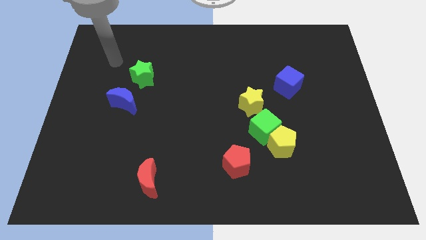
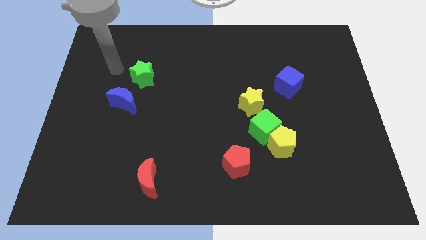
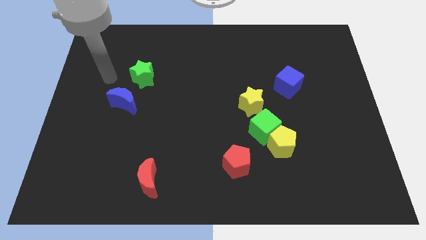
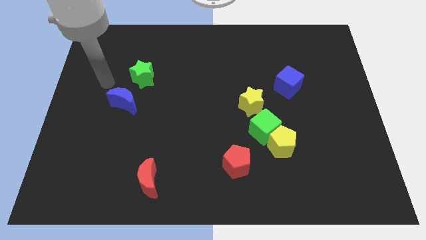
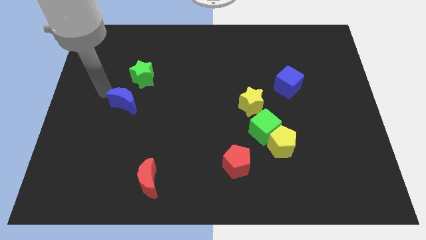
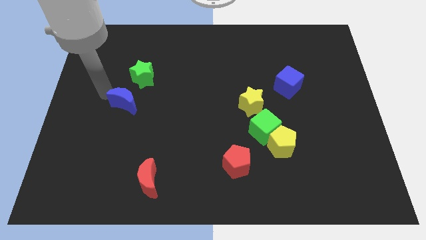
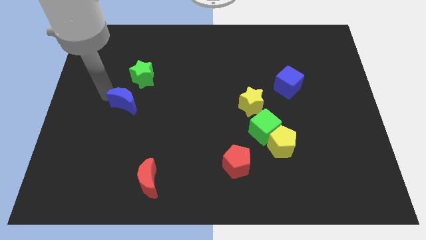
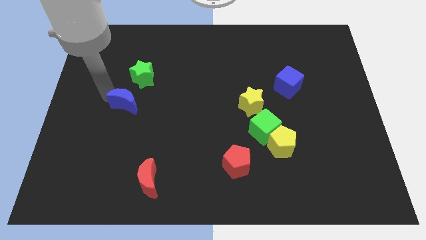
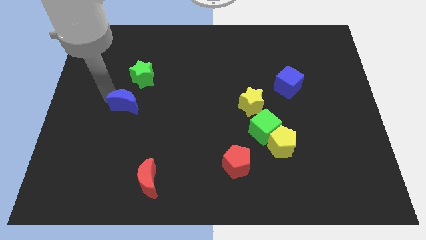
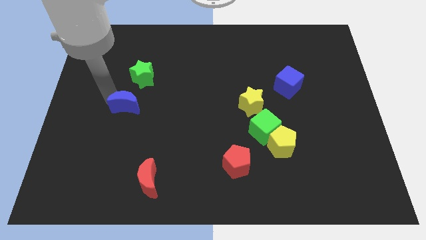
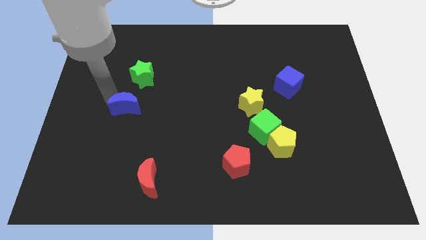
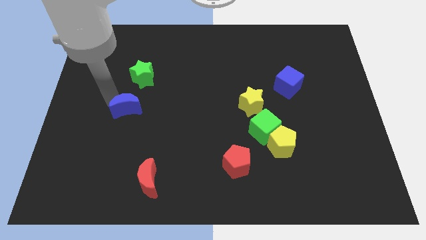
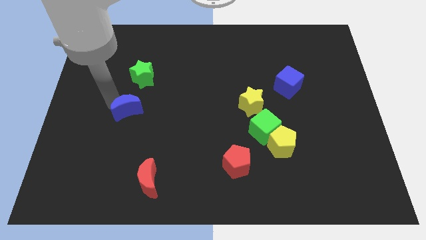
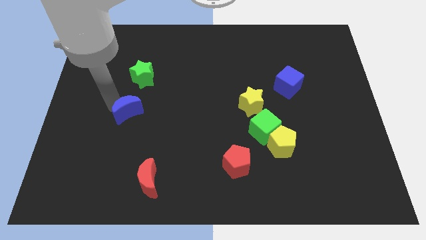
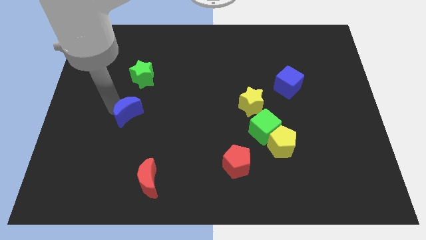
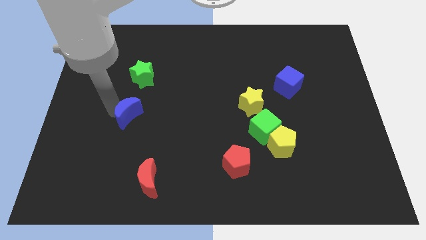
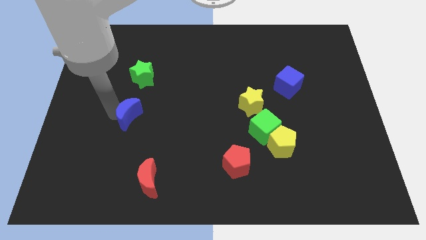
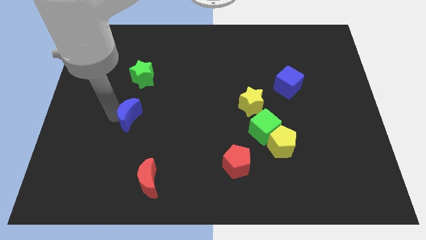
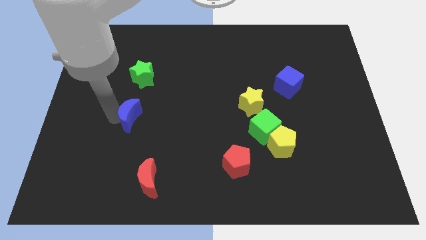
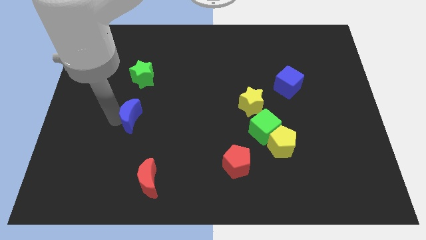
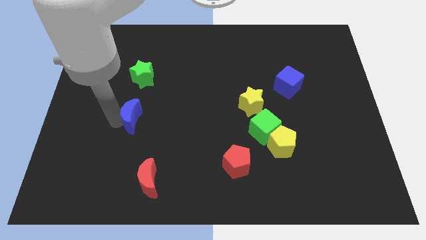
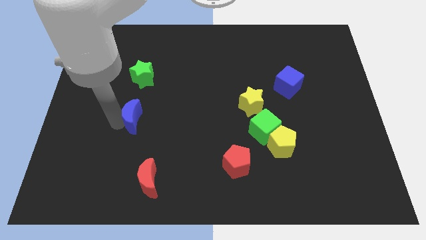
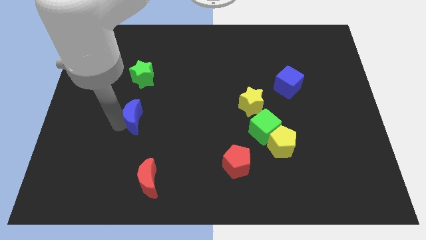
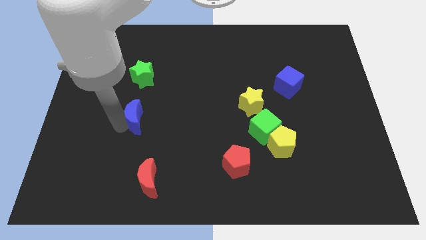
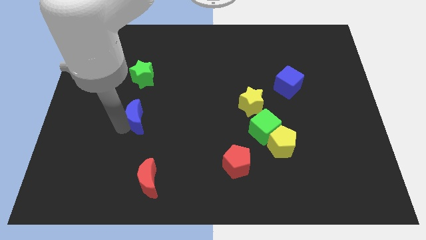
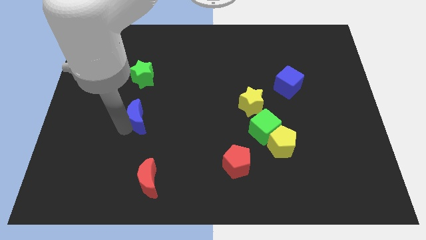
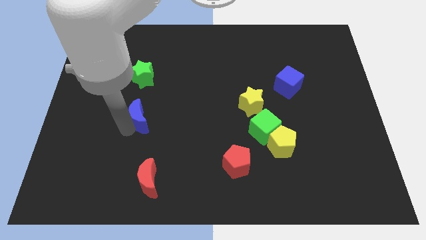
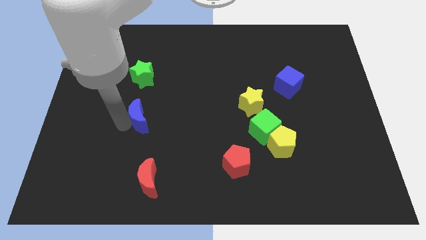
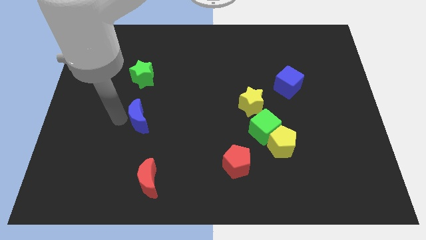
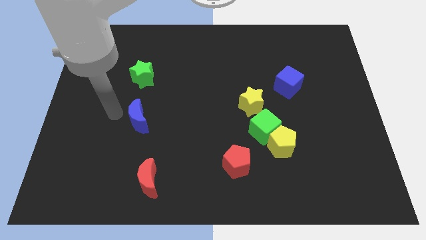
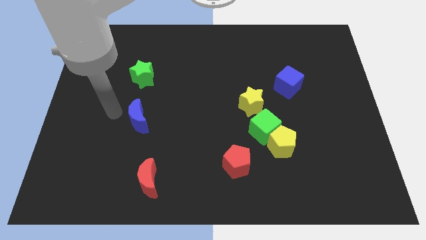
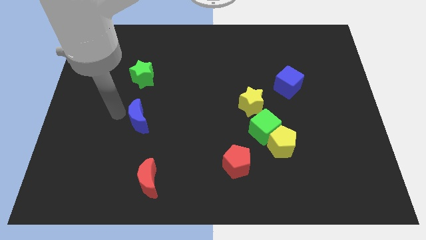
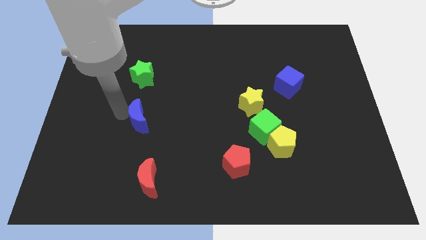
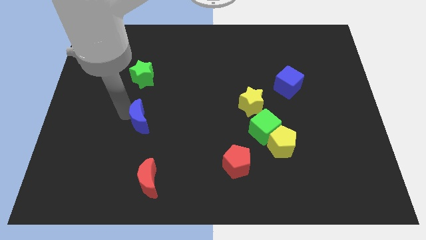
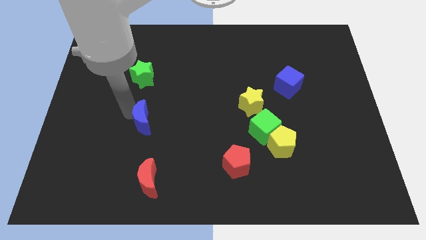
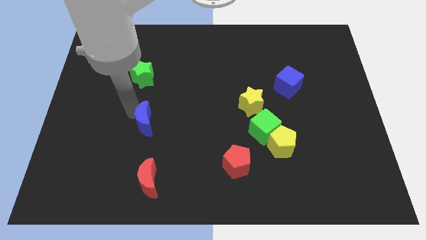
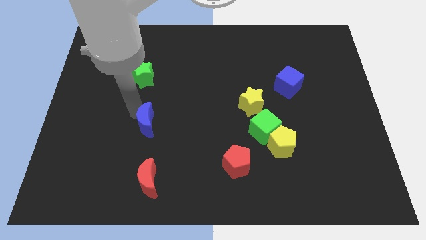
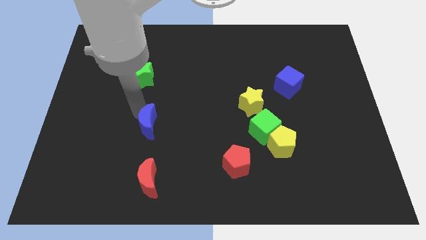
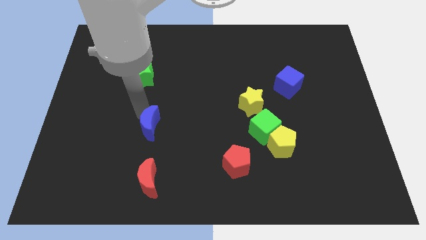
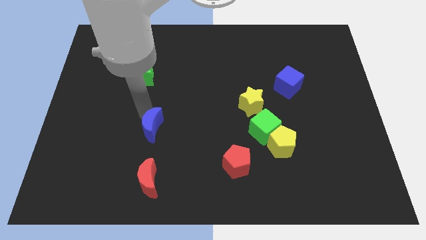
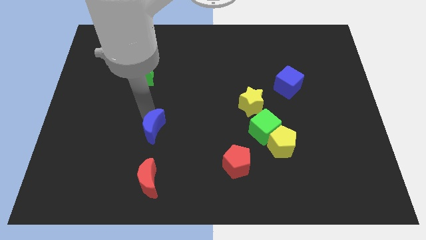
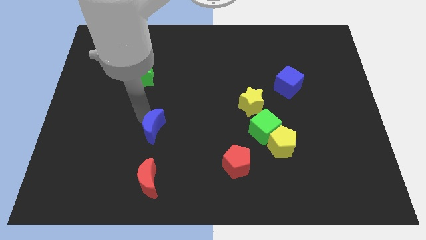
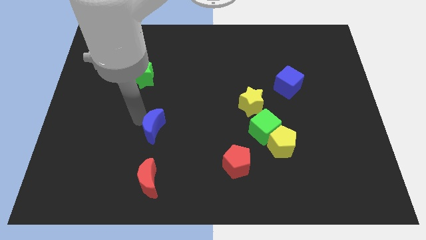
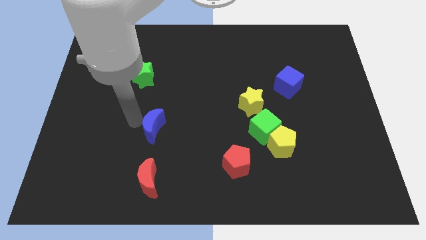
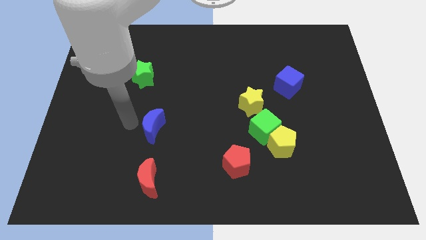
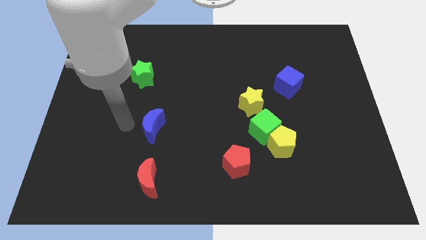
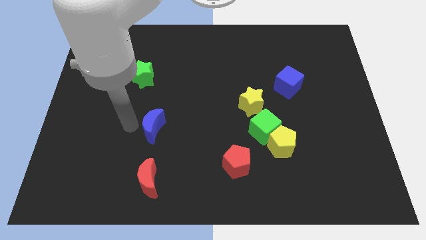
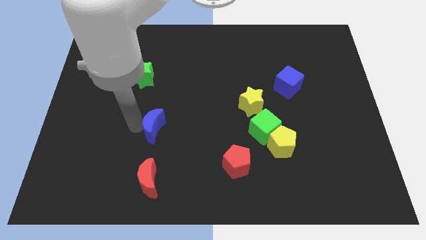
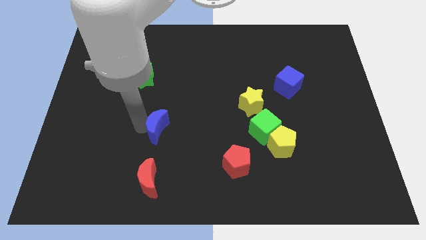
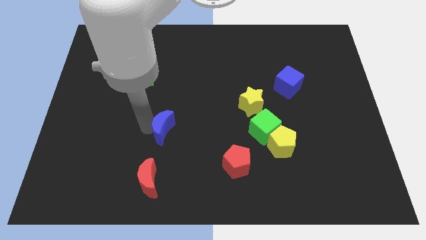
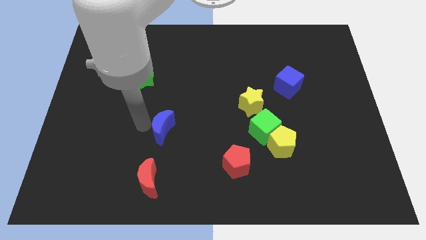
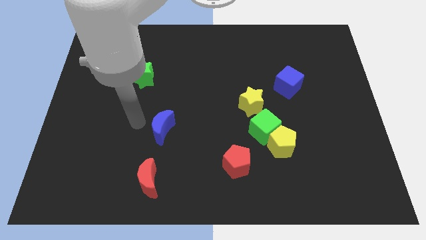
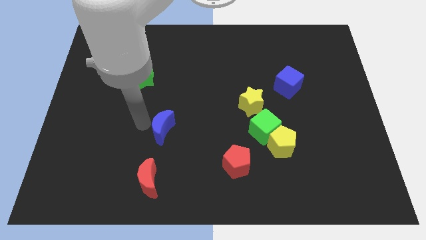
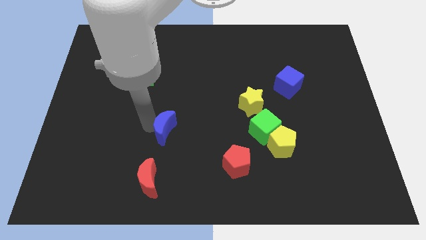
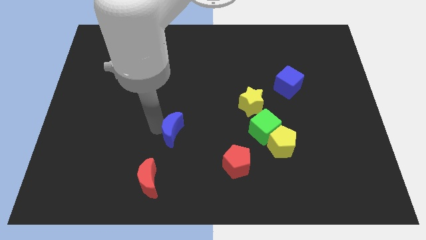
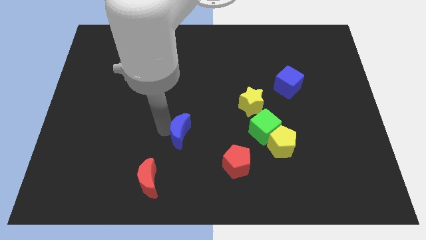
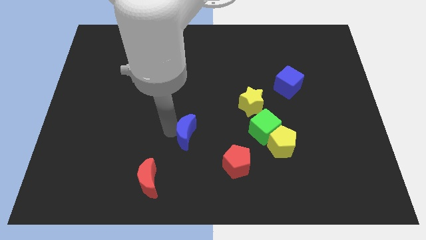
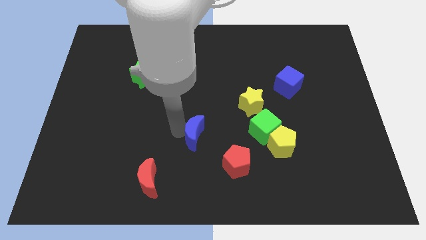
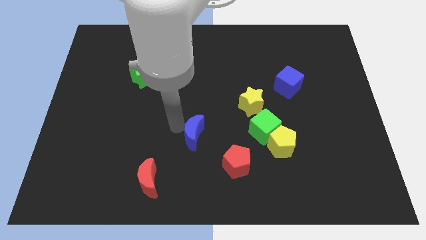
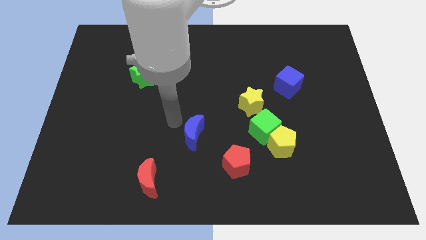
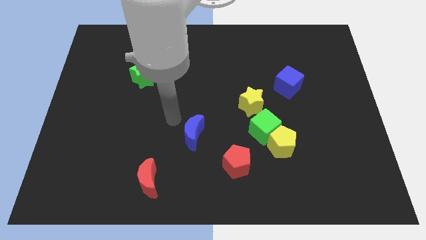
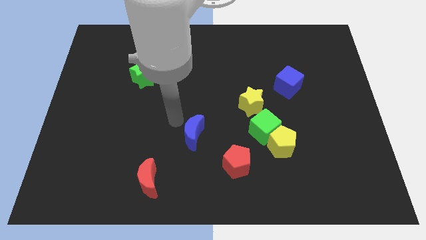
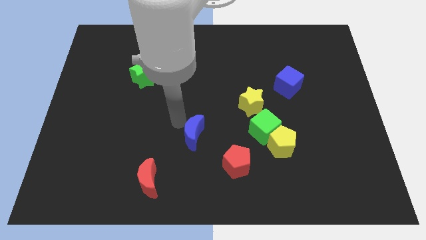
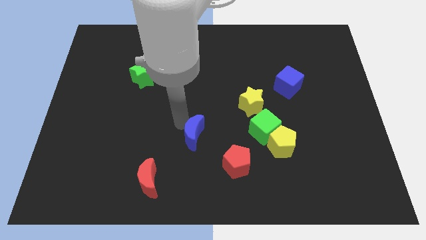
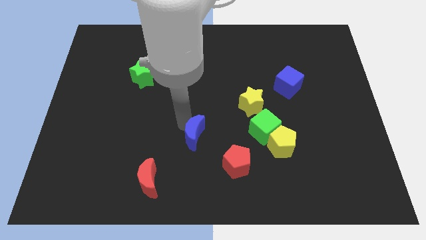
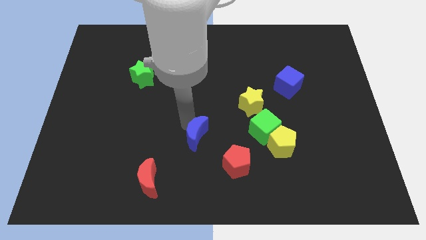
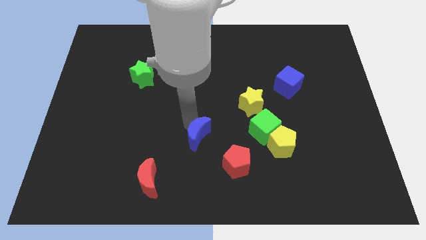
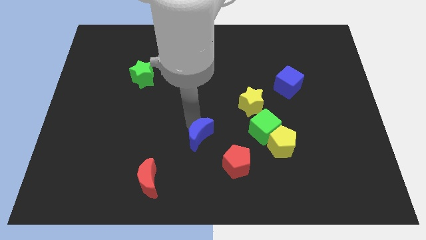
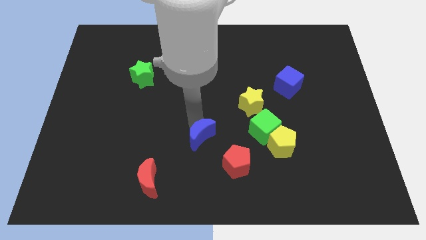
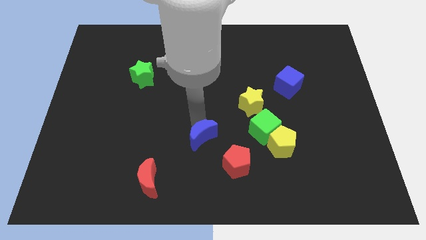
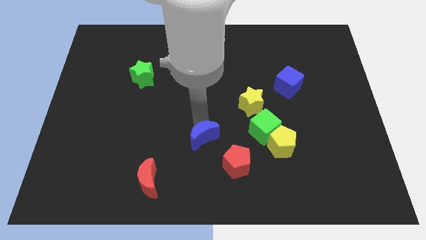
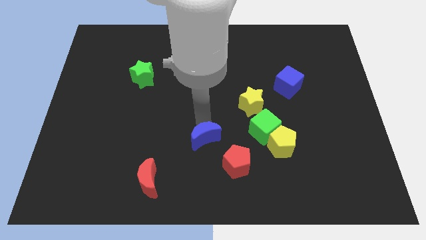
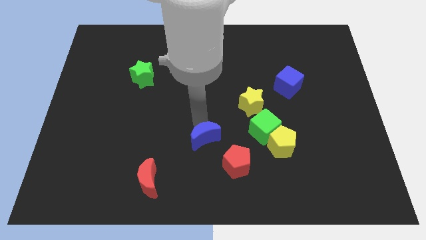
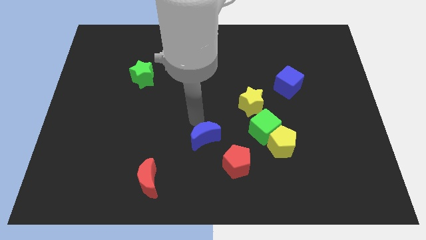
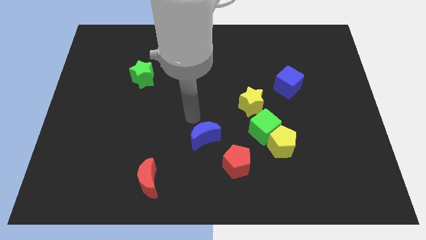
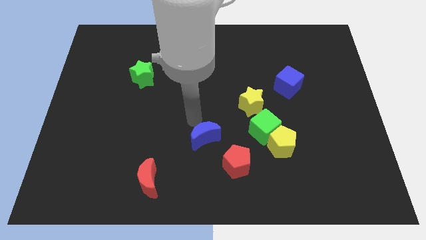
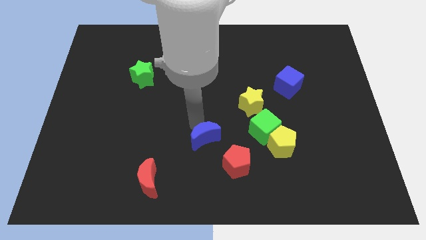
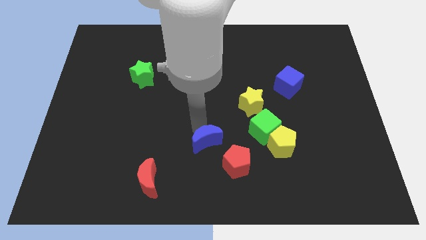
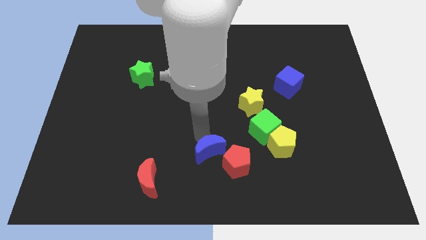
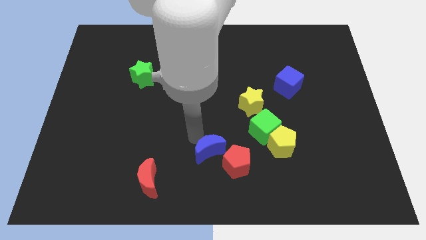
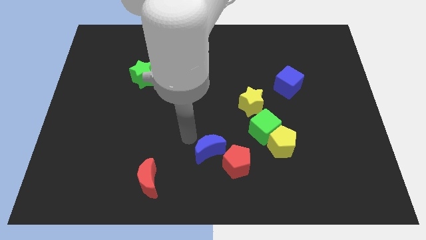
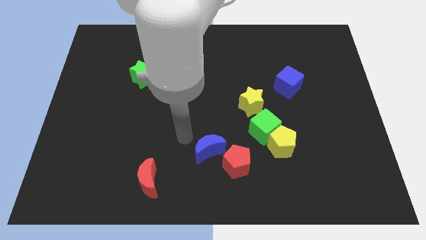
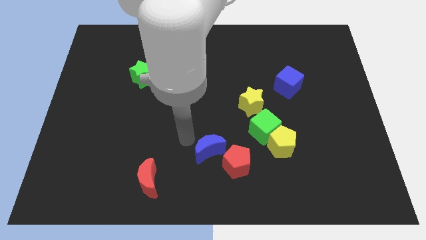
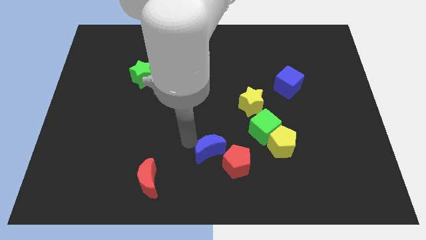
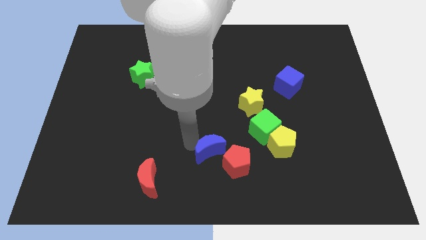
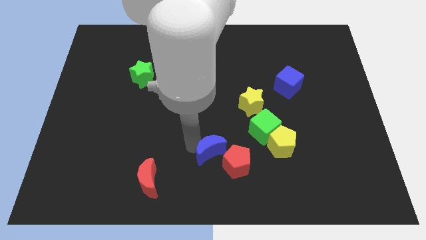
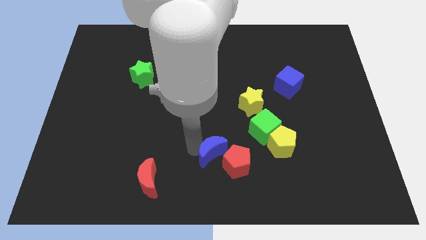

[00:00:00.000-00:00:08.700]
push the blue moon next to the red pentagon
